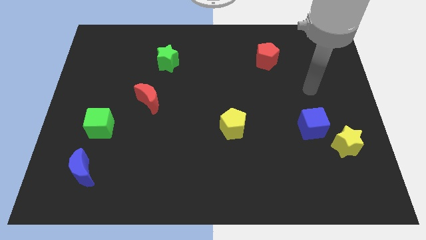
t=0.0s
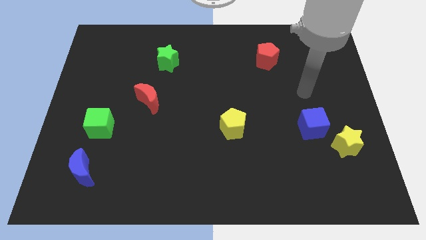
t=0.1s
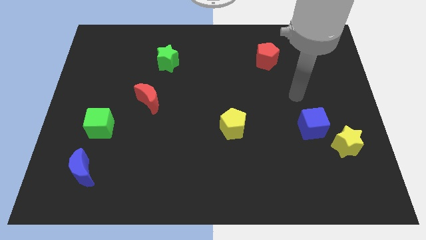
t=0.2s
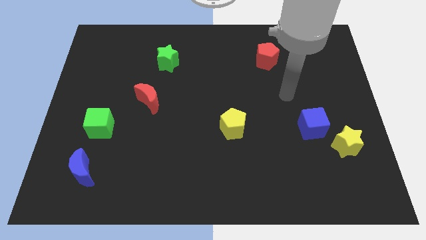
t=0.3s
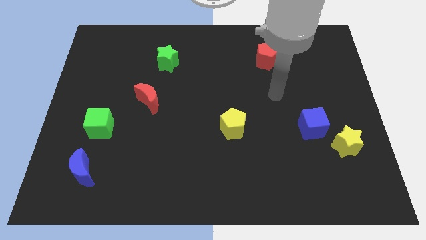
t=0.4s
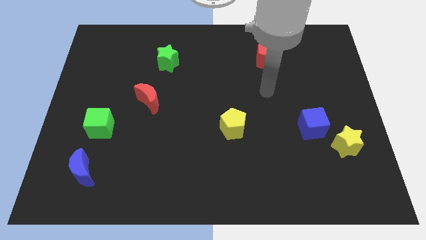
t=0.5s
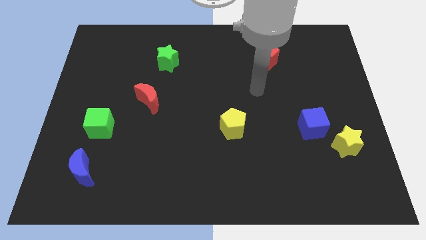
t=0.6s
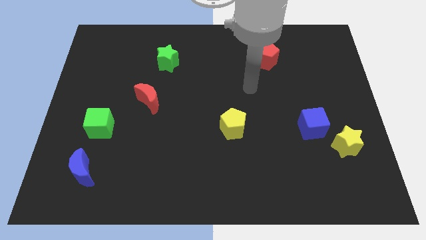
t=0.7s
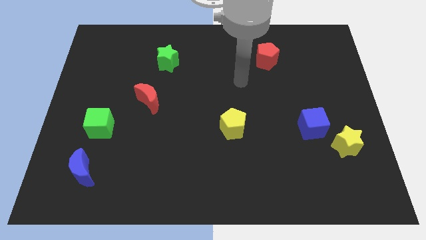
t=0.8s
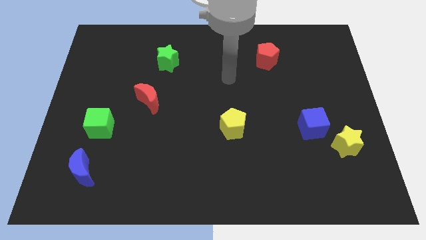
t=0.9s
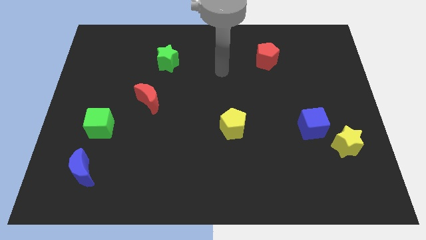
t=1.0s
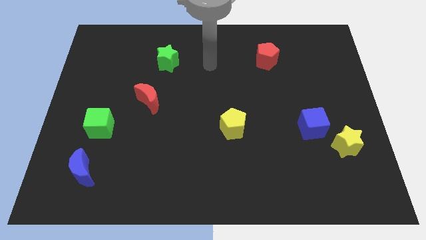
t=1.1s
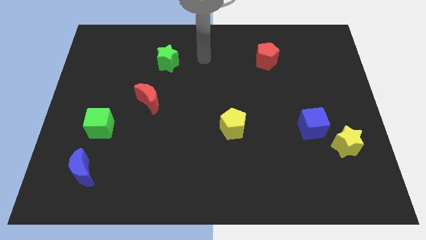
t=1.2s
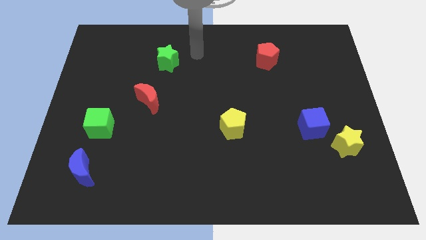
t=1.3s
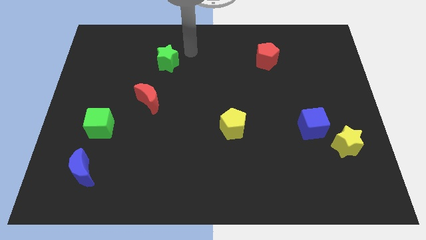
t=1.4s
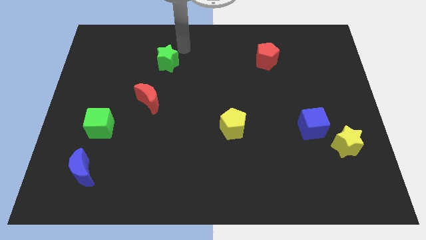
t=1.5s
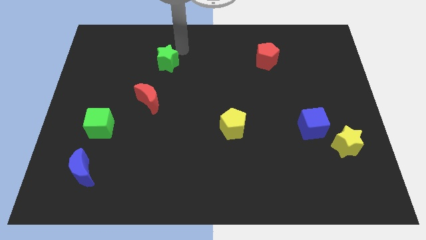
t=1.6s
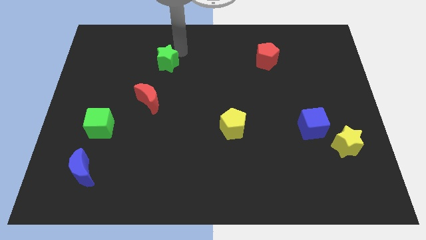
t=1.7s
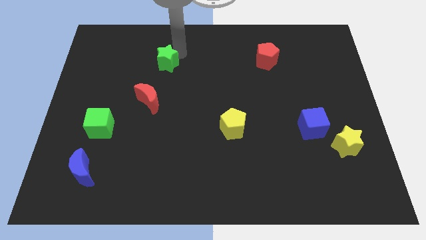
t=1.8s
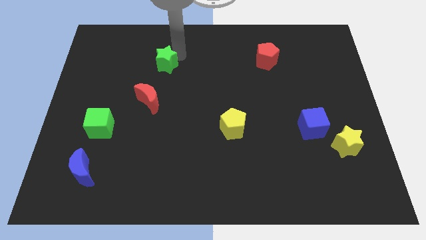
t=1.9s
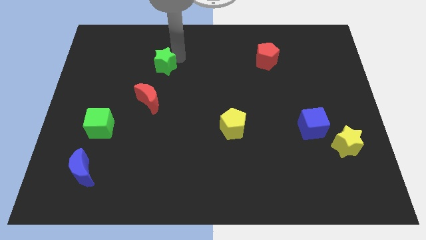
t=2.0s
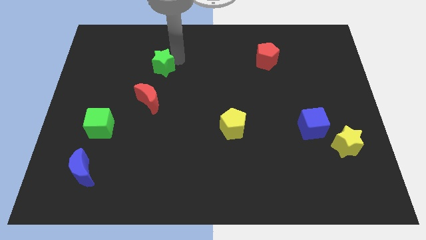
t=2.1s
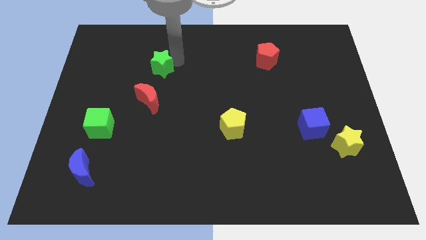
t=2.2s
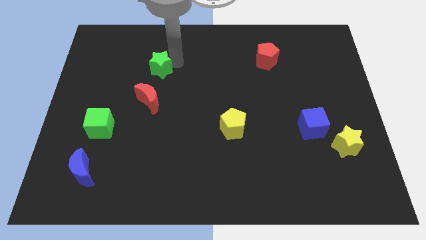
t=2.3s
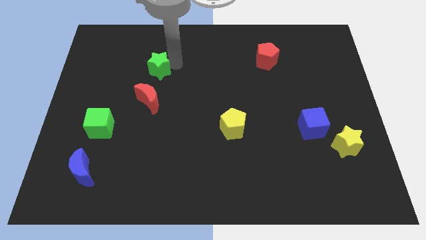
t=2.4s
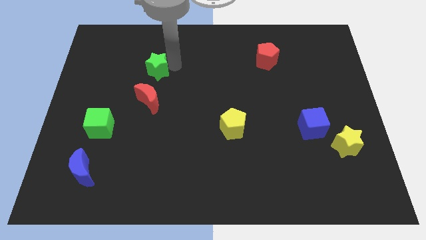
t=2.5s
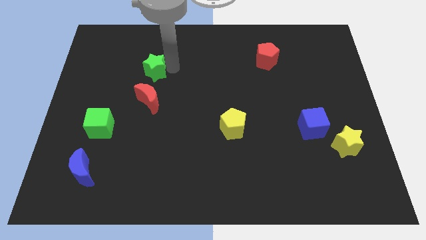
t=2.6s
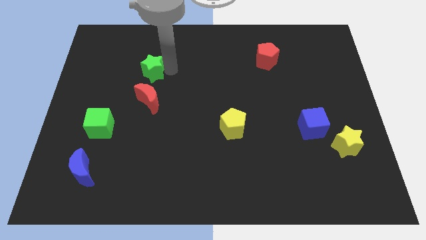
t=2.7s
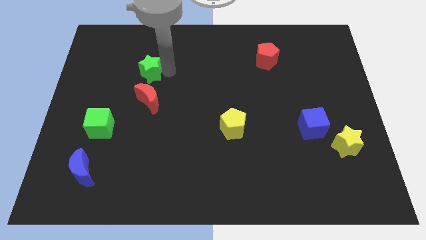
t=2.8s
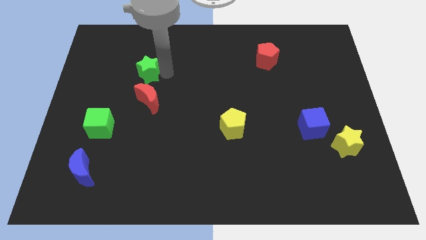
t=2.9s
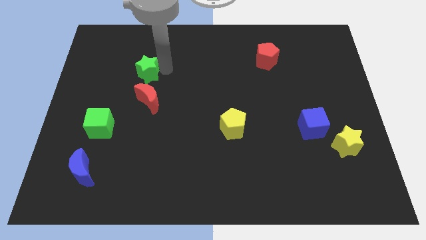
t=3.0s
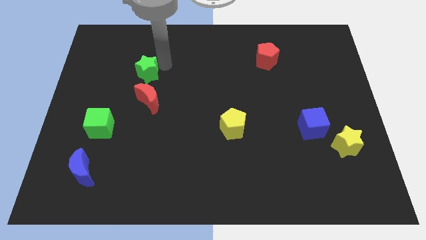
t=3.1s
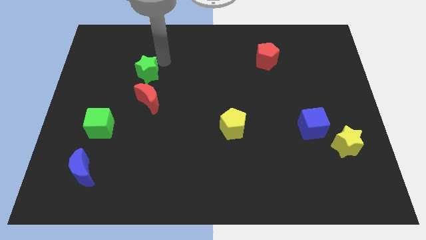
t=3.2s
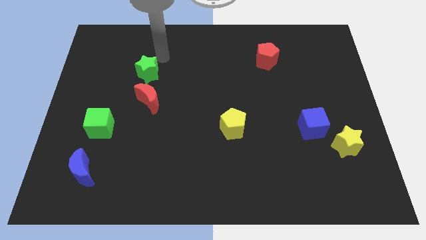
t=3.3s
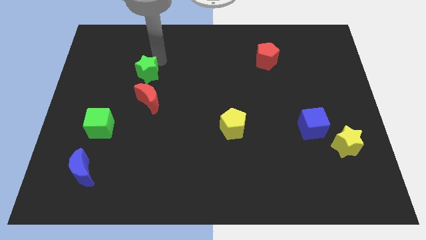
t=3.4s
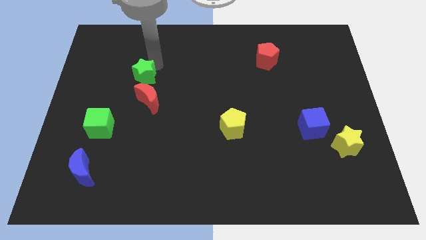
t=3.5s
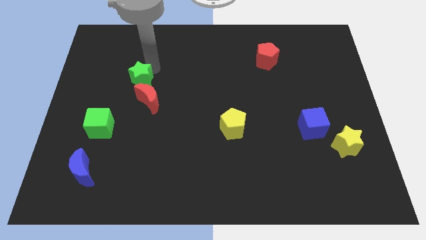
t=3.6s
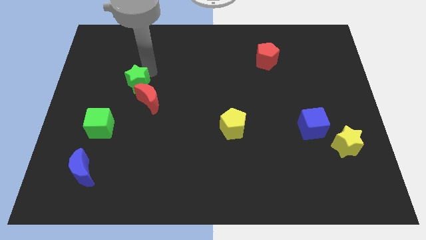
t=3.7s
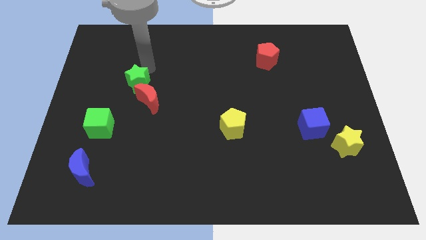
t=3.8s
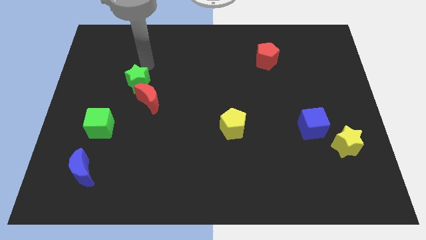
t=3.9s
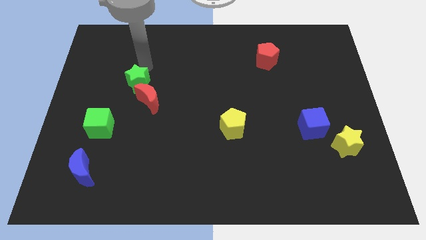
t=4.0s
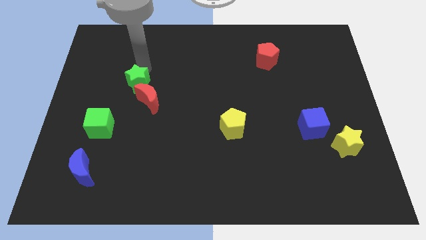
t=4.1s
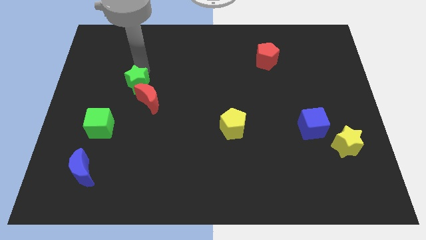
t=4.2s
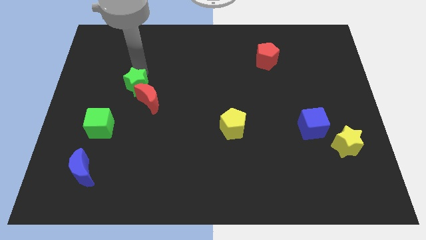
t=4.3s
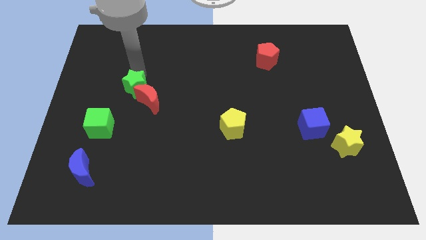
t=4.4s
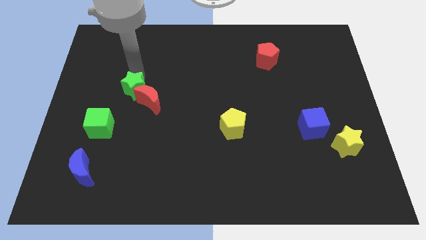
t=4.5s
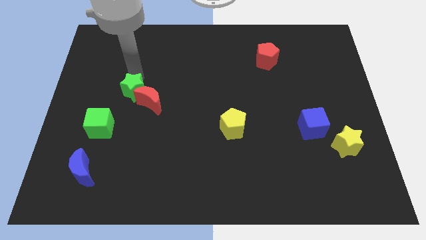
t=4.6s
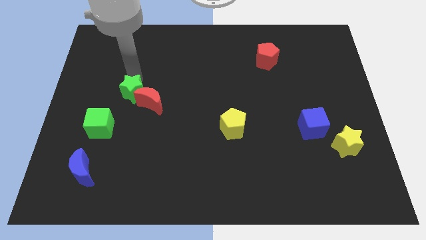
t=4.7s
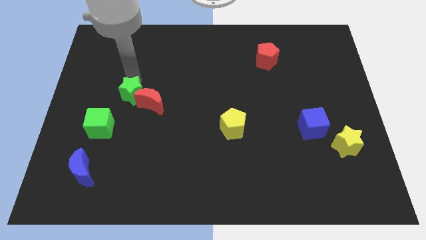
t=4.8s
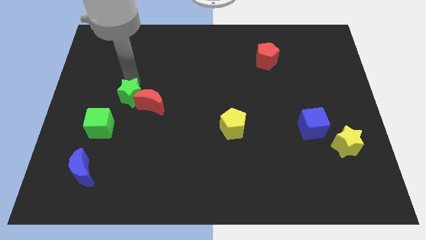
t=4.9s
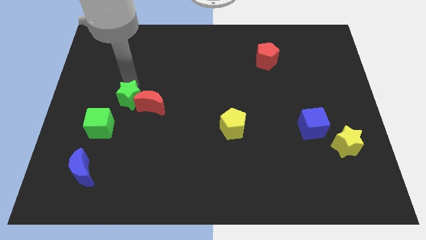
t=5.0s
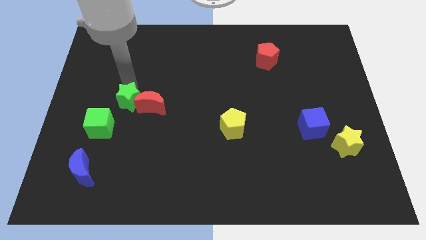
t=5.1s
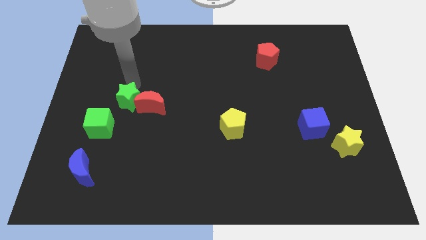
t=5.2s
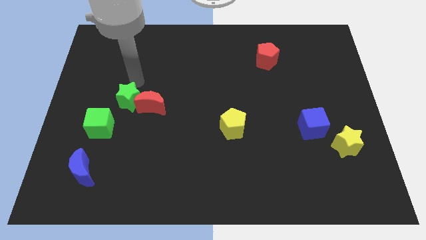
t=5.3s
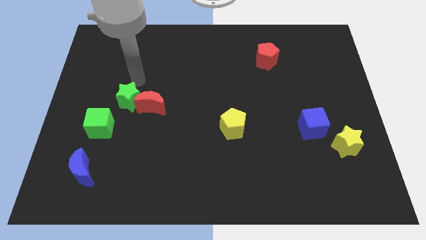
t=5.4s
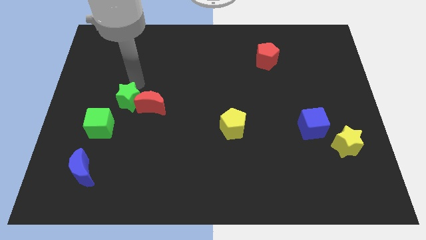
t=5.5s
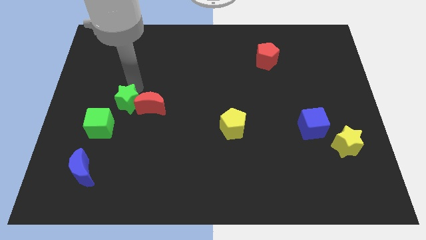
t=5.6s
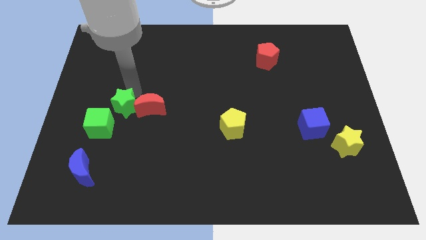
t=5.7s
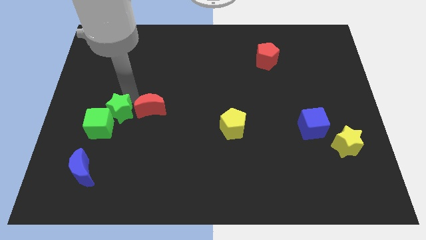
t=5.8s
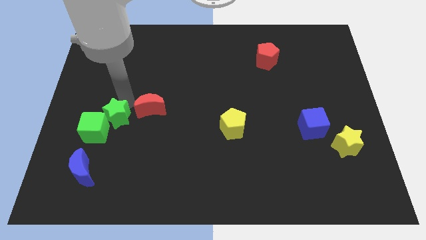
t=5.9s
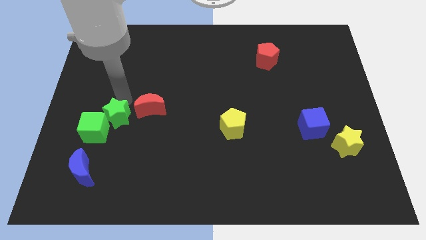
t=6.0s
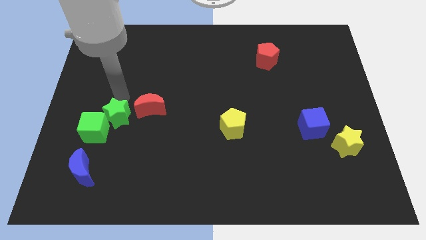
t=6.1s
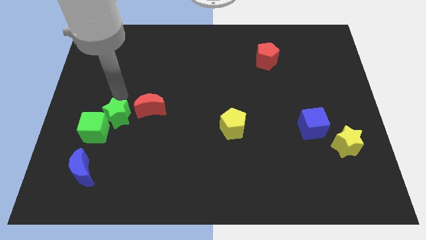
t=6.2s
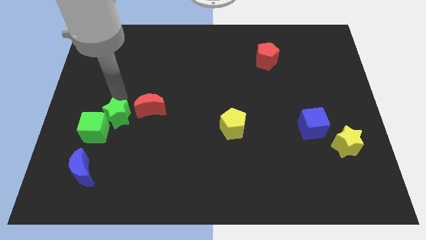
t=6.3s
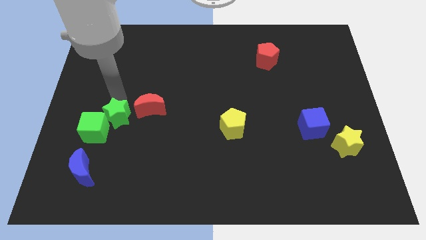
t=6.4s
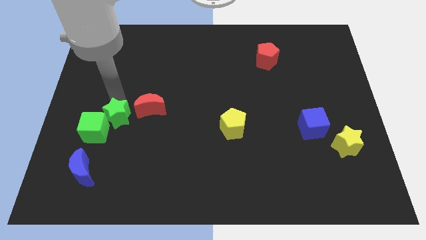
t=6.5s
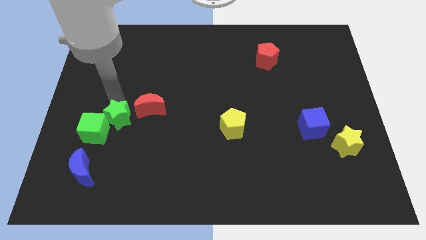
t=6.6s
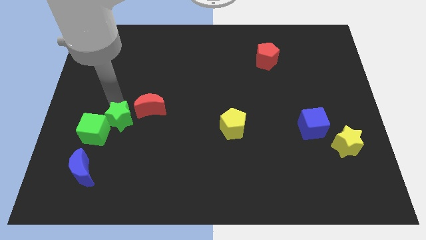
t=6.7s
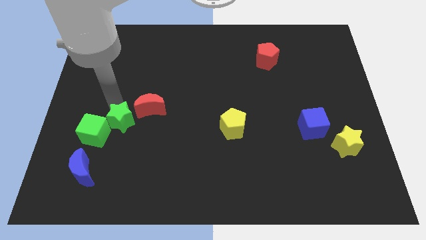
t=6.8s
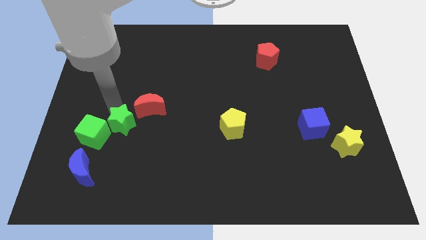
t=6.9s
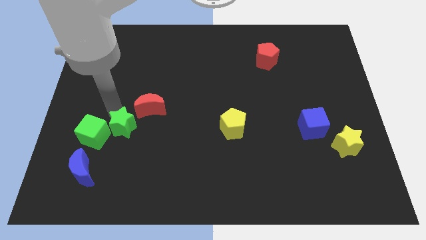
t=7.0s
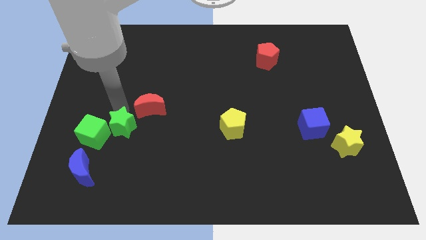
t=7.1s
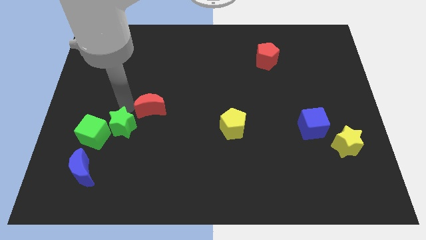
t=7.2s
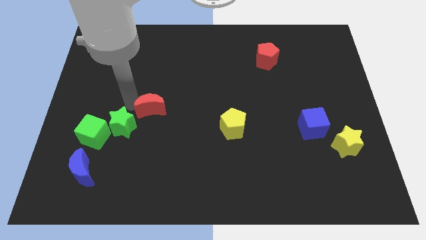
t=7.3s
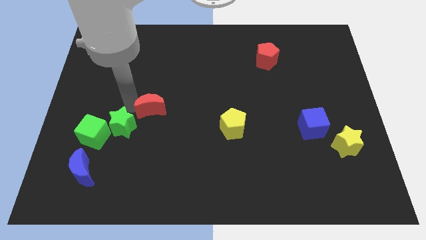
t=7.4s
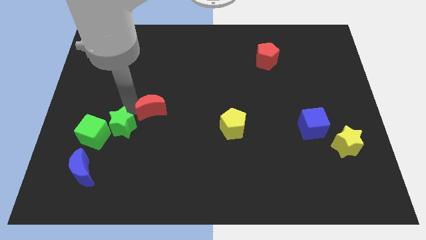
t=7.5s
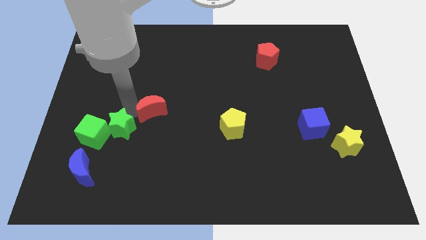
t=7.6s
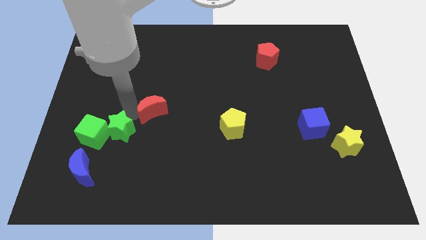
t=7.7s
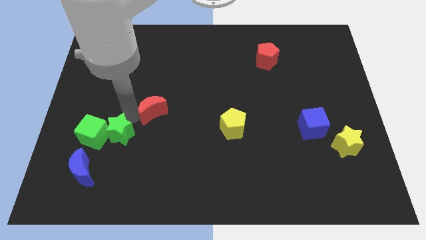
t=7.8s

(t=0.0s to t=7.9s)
move the green star diagonally down and to the right of the green cube
